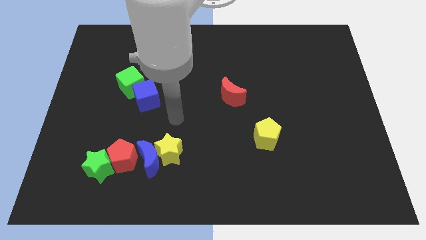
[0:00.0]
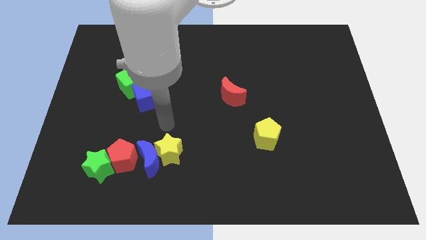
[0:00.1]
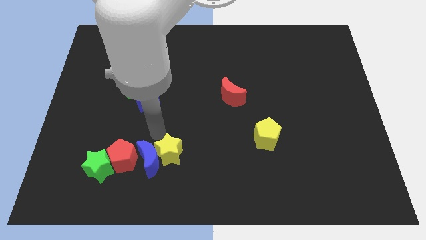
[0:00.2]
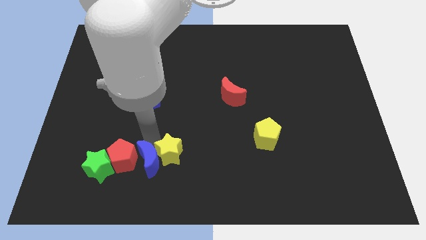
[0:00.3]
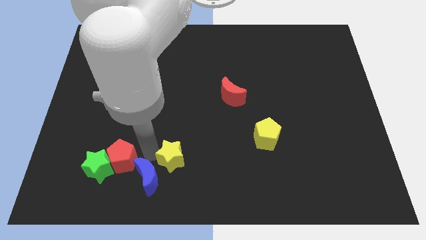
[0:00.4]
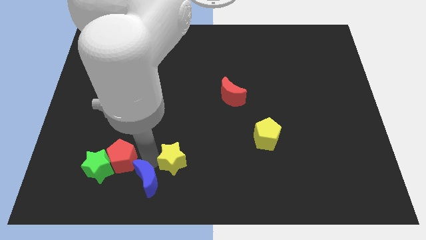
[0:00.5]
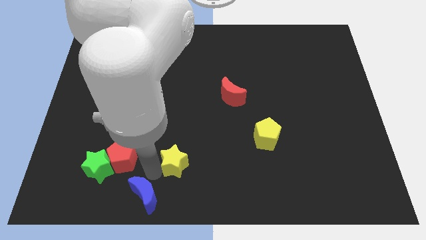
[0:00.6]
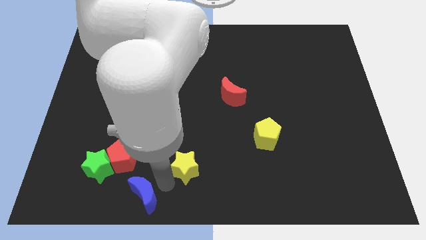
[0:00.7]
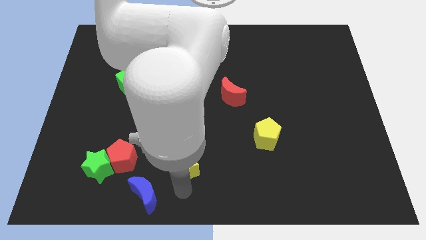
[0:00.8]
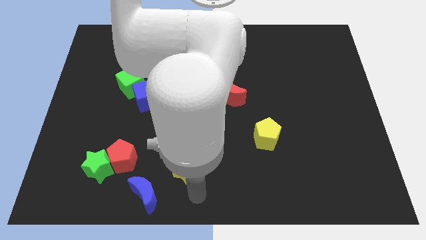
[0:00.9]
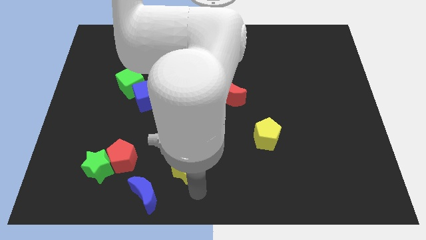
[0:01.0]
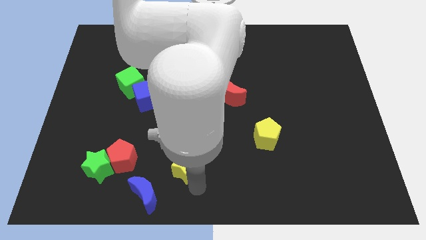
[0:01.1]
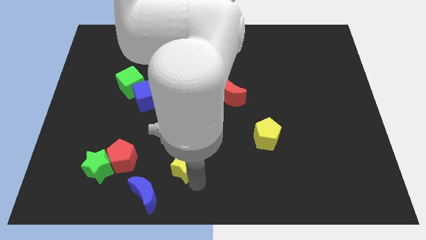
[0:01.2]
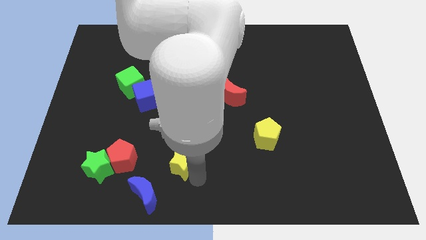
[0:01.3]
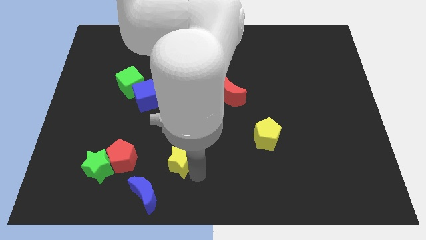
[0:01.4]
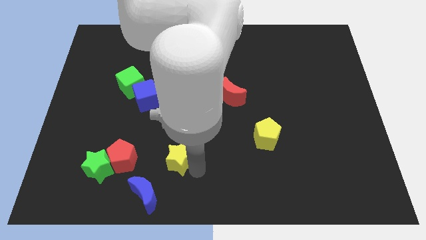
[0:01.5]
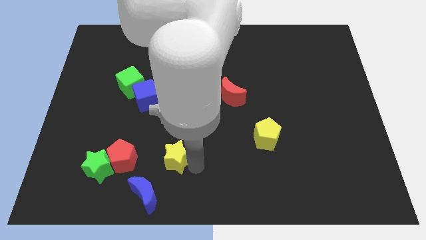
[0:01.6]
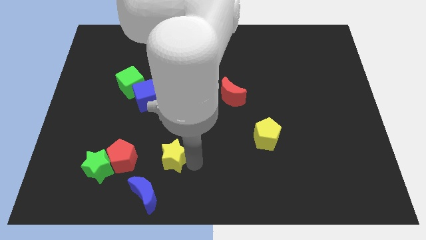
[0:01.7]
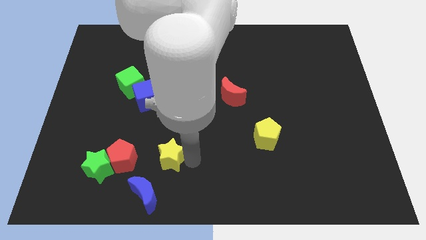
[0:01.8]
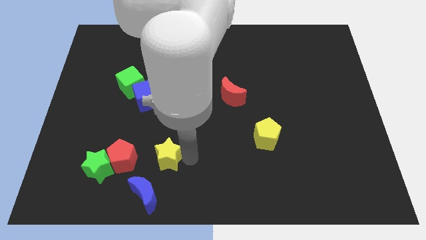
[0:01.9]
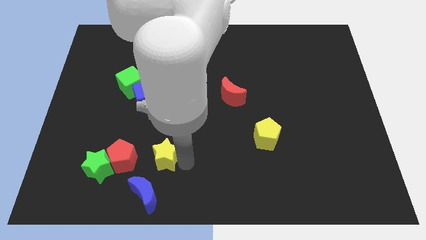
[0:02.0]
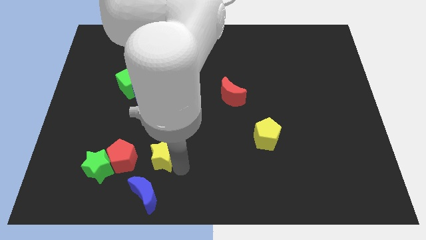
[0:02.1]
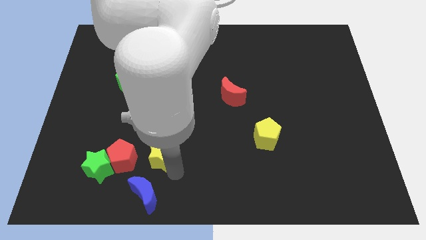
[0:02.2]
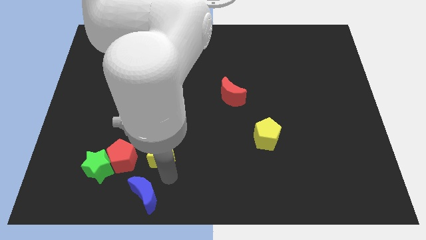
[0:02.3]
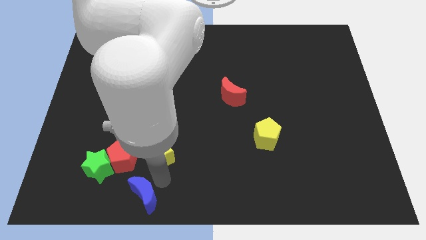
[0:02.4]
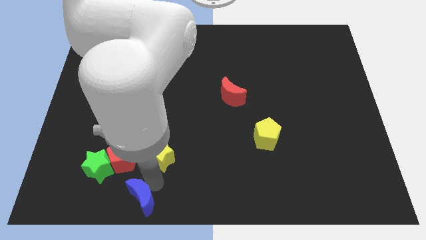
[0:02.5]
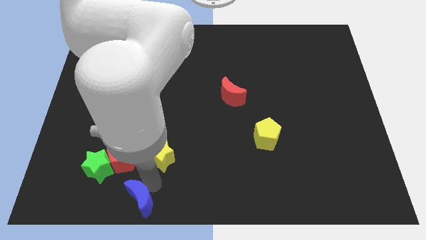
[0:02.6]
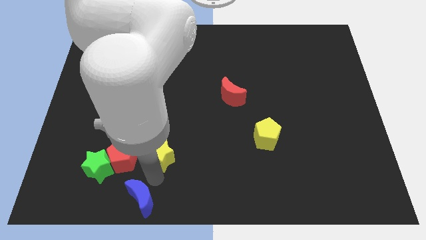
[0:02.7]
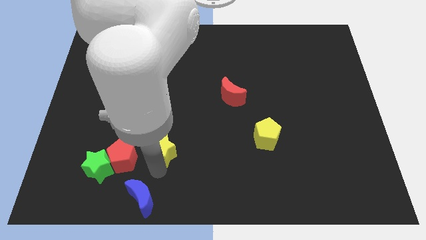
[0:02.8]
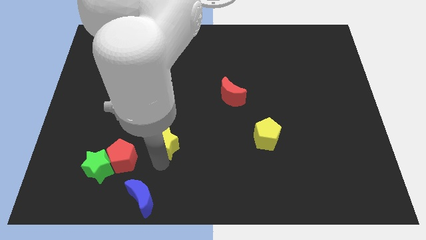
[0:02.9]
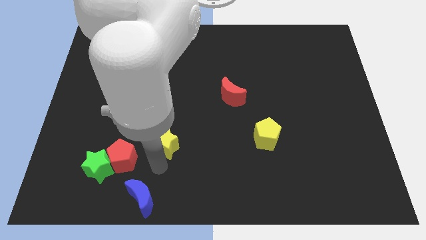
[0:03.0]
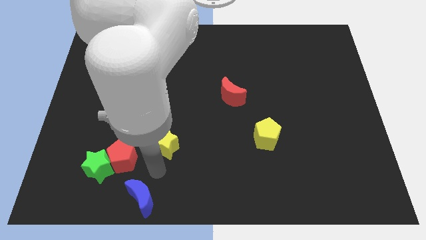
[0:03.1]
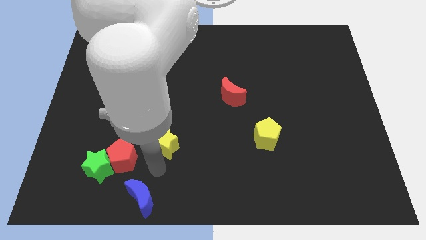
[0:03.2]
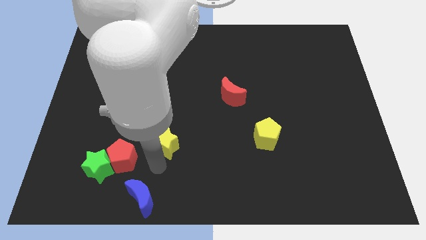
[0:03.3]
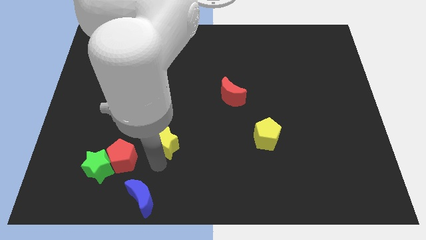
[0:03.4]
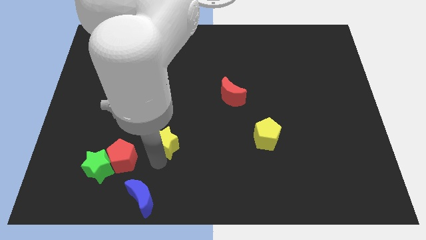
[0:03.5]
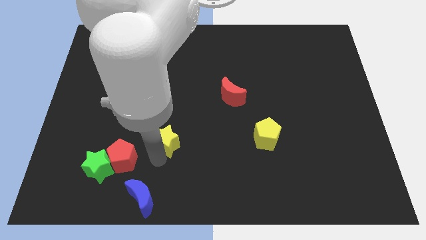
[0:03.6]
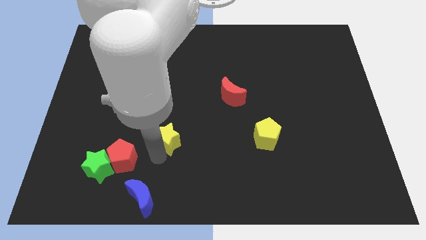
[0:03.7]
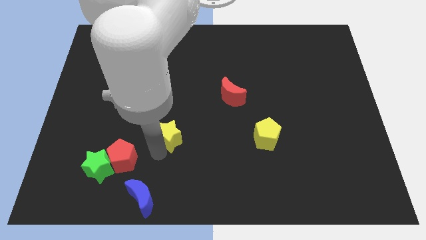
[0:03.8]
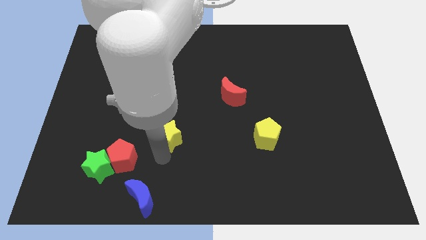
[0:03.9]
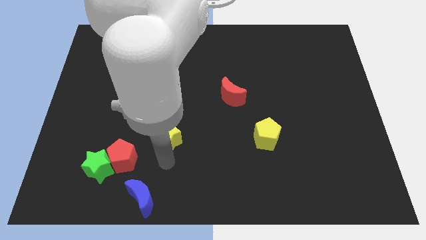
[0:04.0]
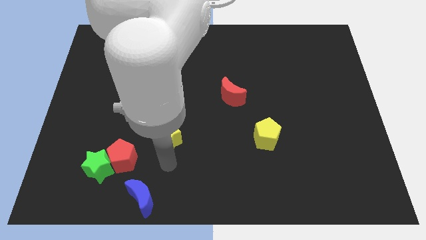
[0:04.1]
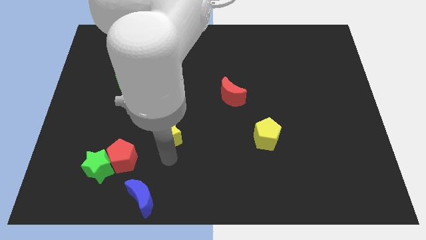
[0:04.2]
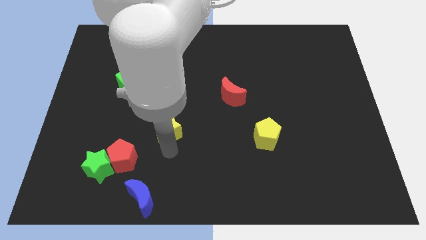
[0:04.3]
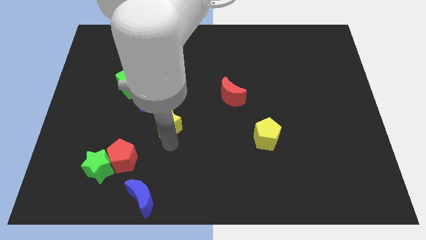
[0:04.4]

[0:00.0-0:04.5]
push the yellow star somewhat upwards

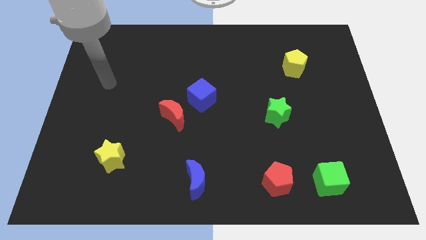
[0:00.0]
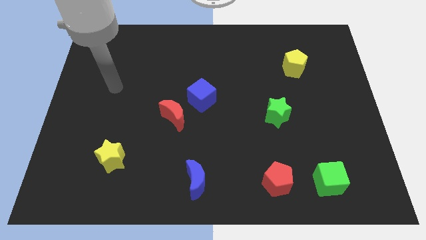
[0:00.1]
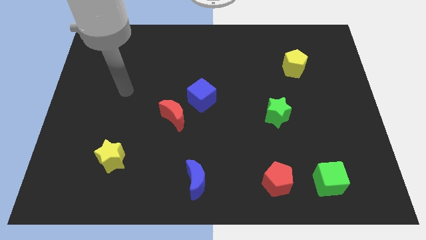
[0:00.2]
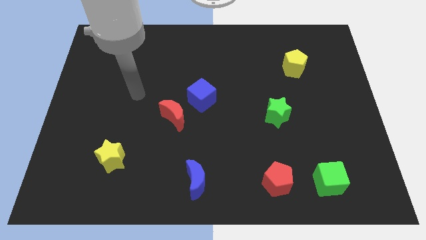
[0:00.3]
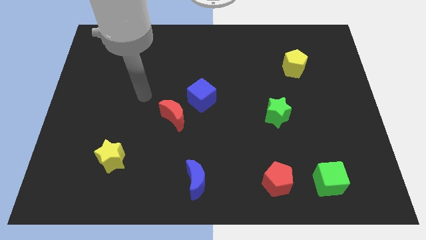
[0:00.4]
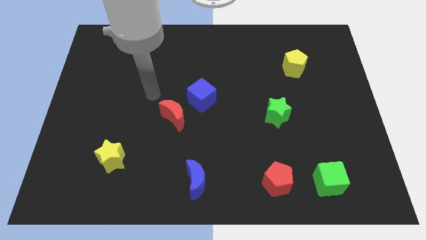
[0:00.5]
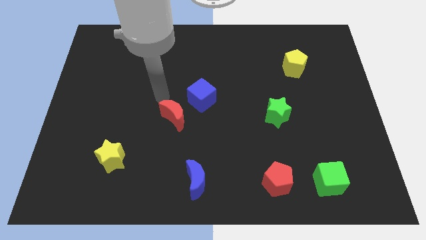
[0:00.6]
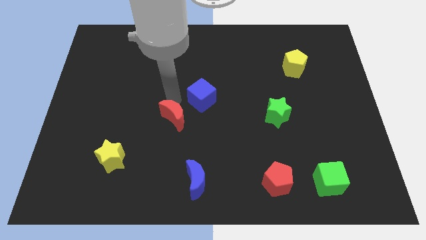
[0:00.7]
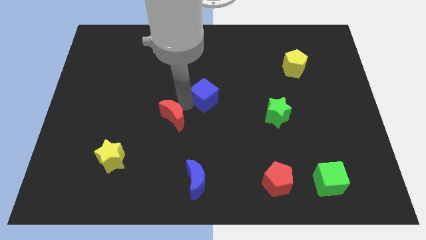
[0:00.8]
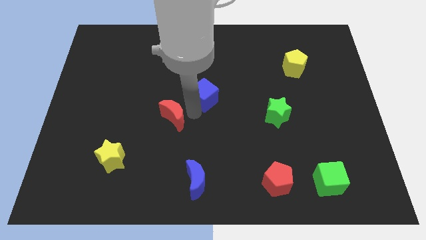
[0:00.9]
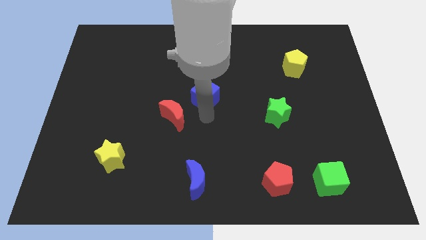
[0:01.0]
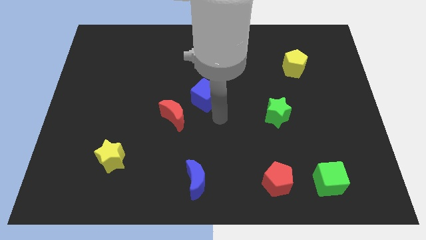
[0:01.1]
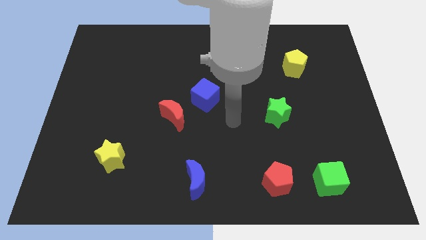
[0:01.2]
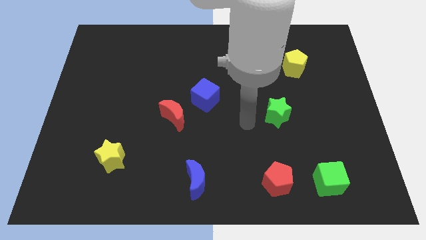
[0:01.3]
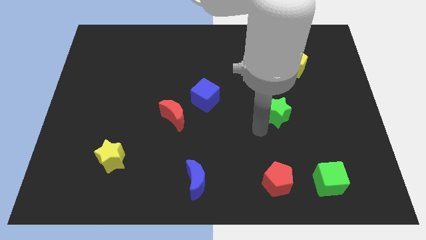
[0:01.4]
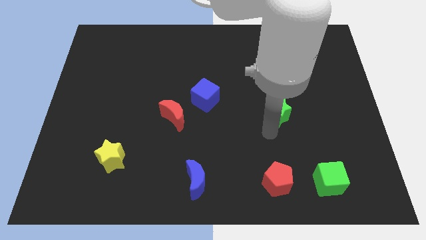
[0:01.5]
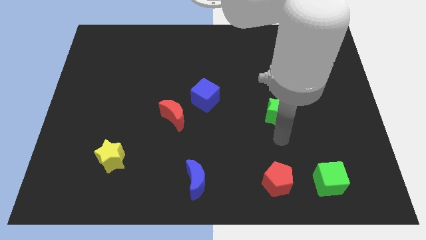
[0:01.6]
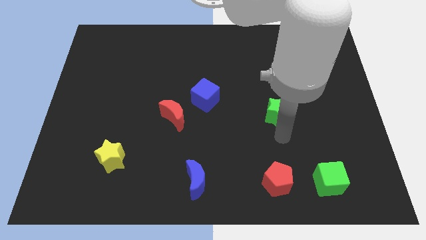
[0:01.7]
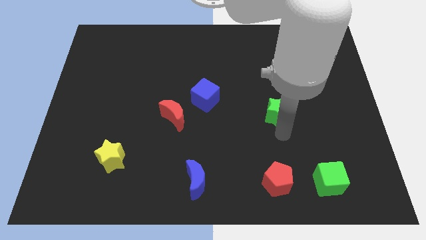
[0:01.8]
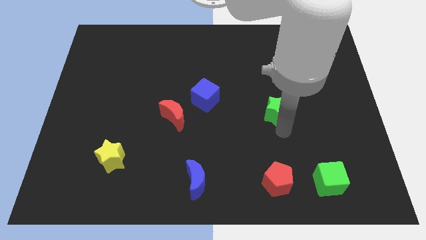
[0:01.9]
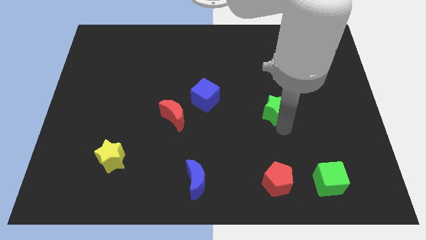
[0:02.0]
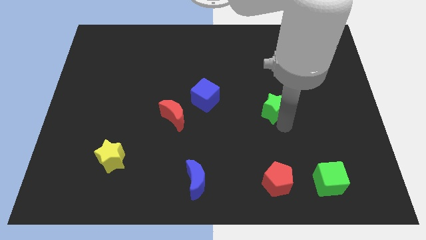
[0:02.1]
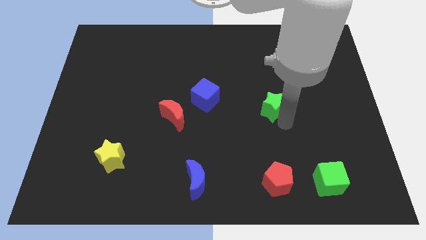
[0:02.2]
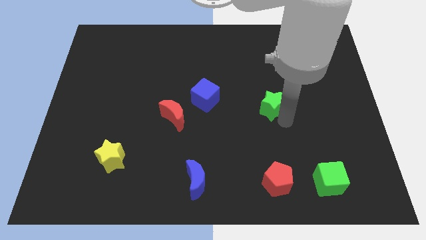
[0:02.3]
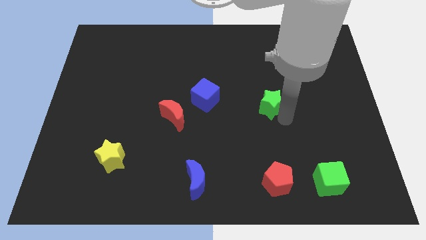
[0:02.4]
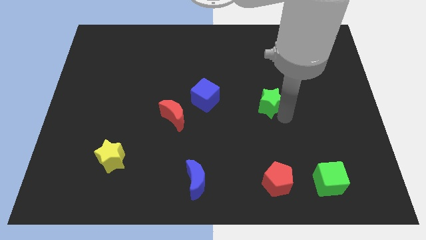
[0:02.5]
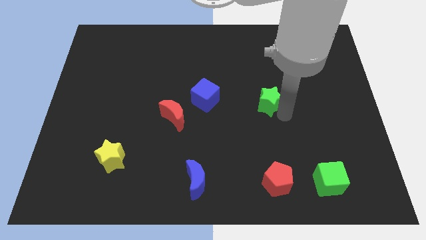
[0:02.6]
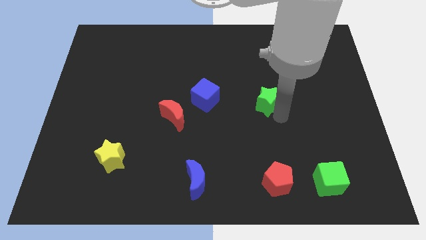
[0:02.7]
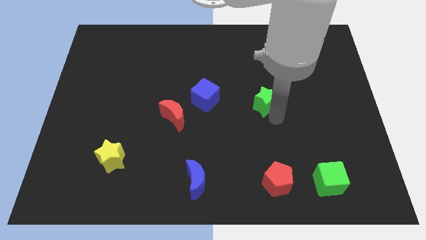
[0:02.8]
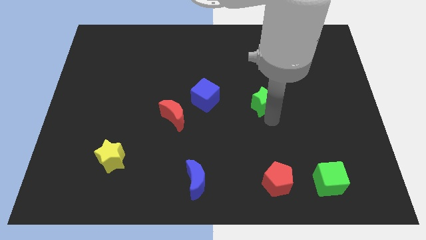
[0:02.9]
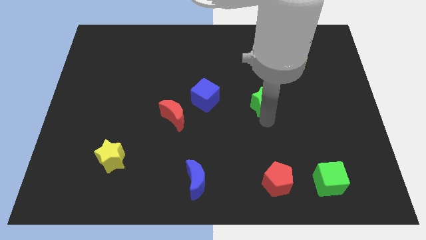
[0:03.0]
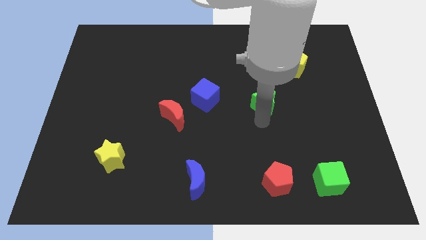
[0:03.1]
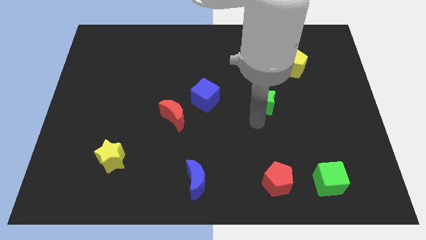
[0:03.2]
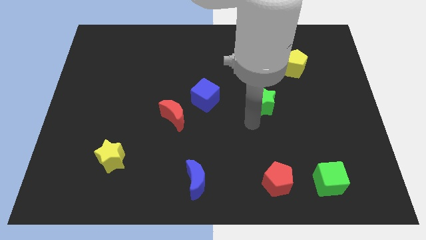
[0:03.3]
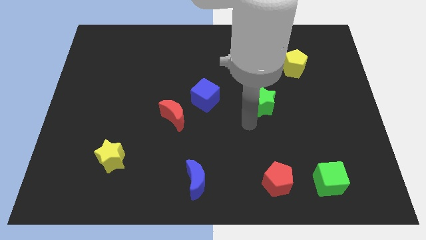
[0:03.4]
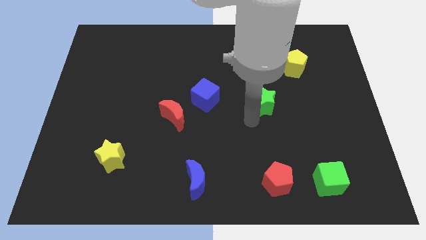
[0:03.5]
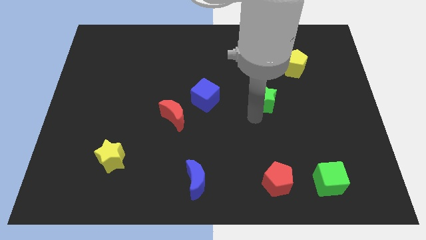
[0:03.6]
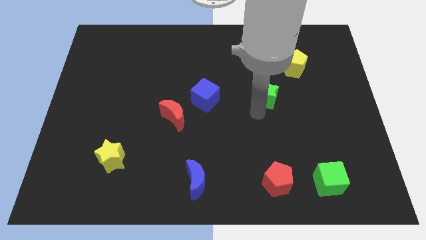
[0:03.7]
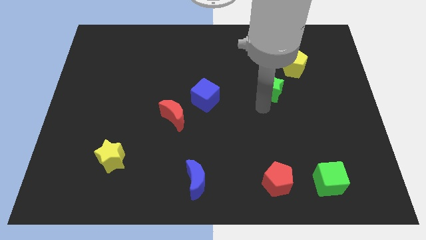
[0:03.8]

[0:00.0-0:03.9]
move the green star a little bit upwards

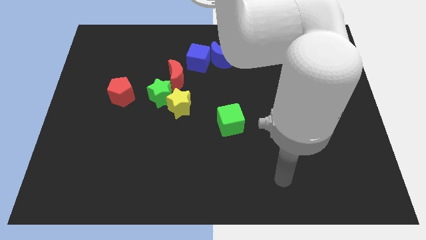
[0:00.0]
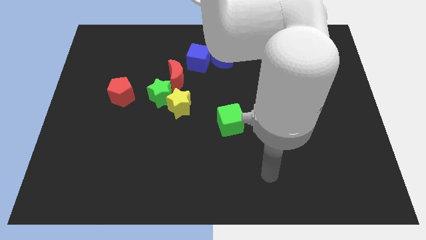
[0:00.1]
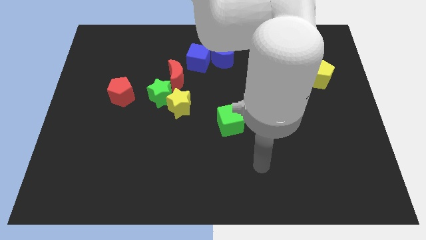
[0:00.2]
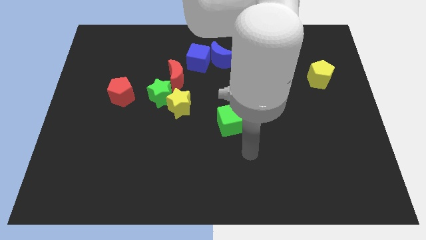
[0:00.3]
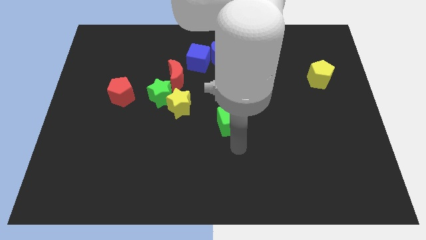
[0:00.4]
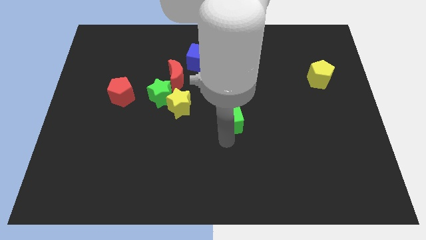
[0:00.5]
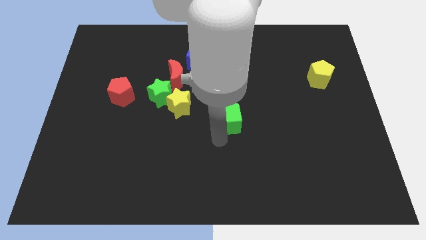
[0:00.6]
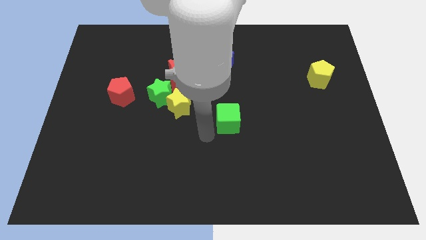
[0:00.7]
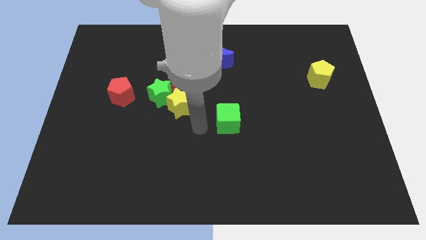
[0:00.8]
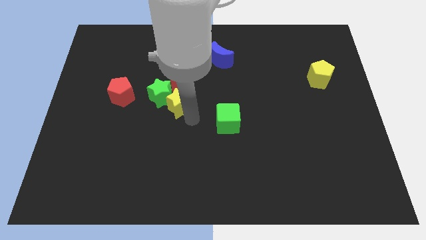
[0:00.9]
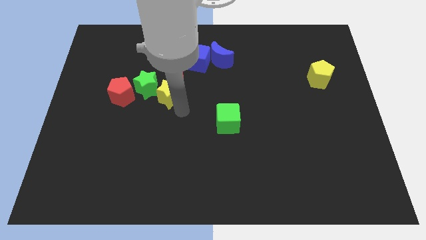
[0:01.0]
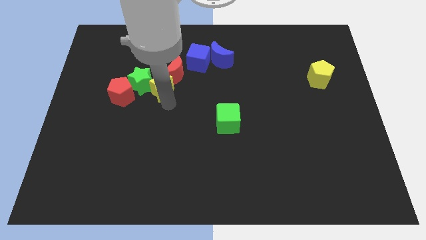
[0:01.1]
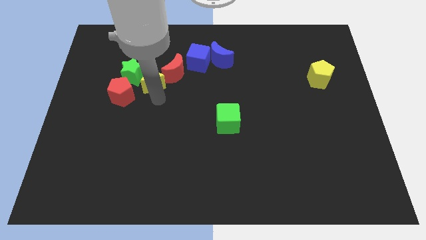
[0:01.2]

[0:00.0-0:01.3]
slightly slide the green star upwards and left
